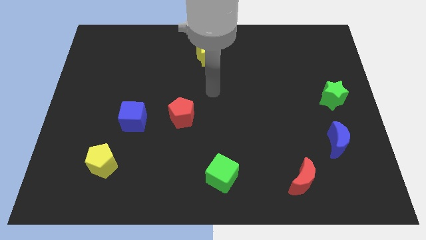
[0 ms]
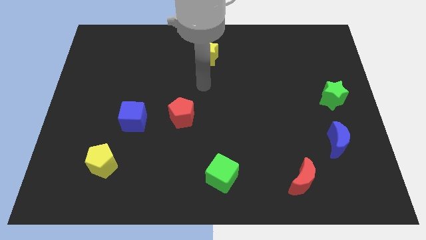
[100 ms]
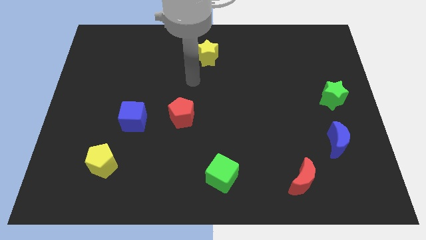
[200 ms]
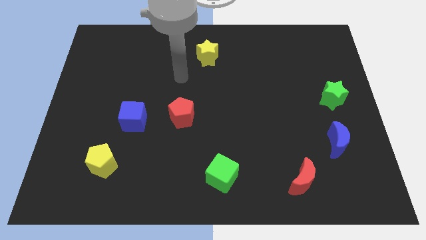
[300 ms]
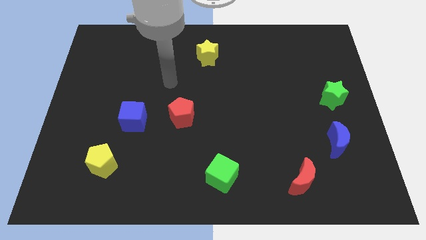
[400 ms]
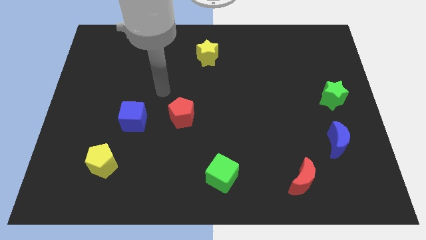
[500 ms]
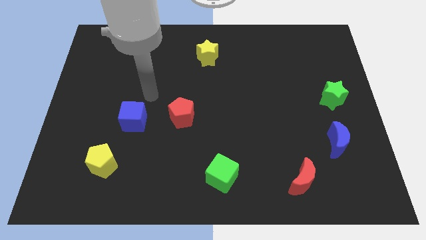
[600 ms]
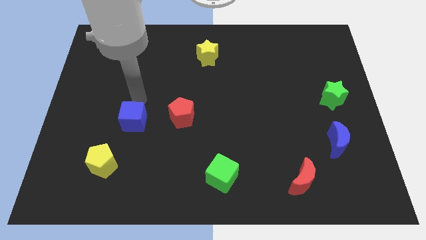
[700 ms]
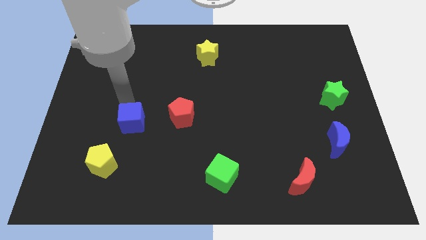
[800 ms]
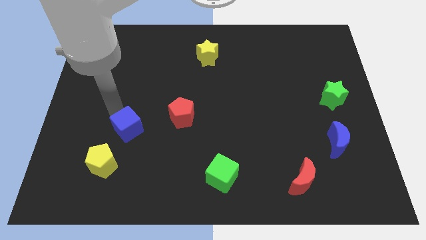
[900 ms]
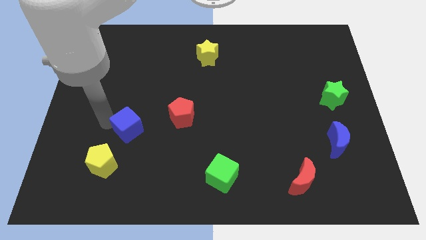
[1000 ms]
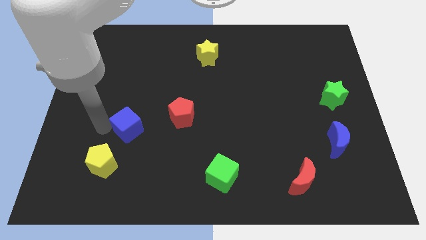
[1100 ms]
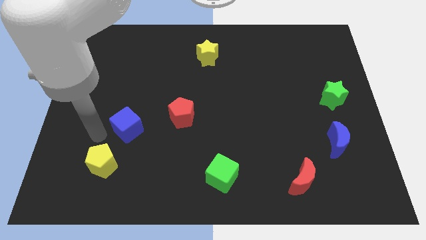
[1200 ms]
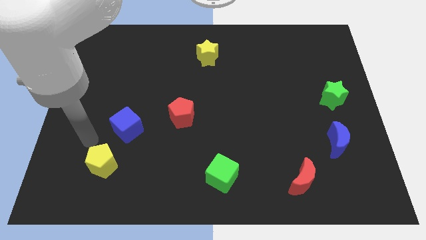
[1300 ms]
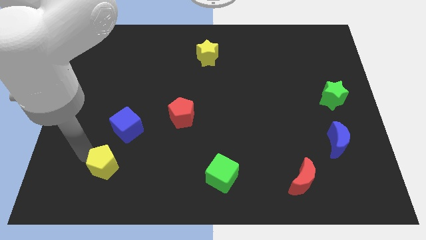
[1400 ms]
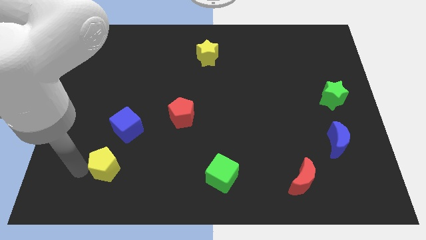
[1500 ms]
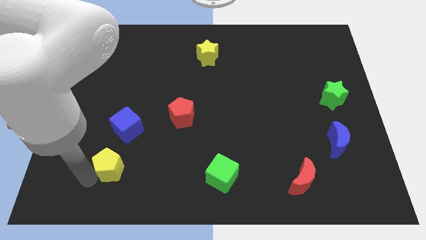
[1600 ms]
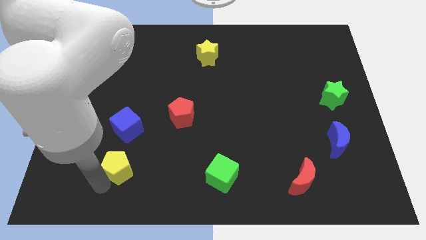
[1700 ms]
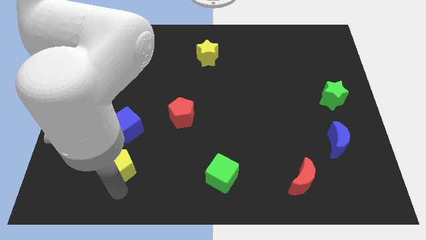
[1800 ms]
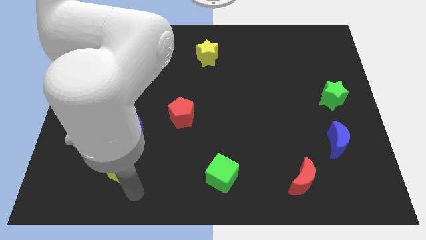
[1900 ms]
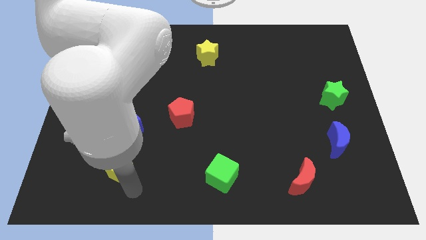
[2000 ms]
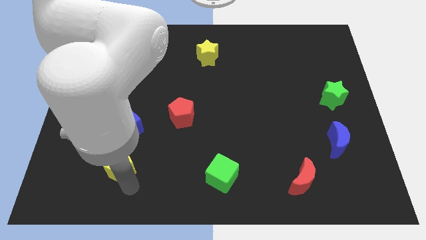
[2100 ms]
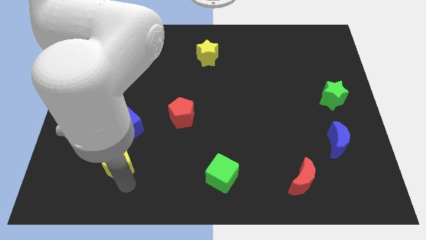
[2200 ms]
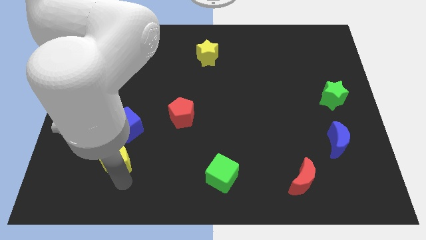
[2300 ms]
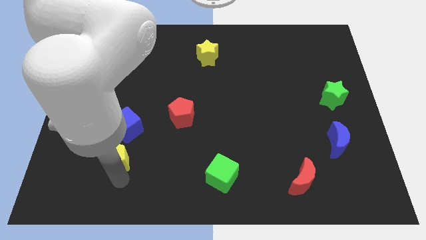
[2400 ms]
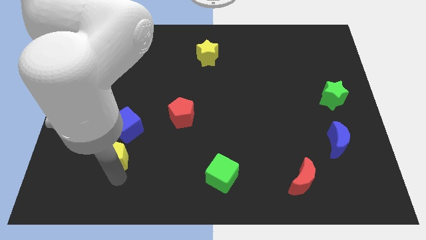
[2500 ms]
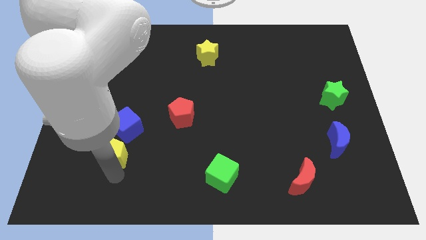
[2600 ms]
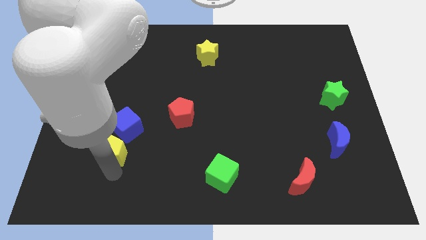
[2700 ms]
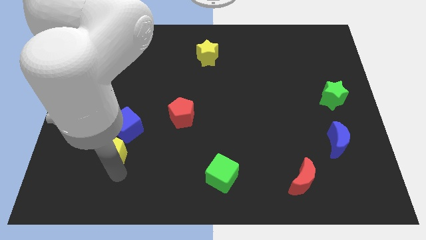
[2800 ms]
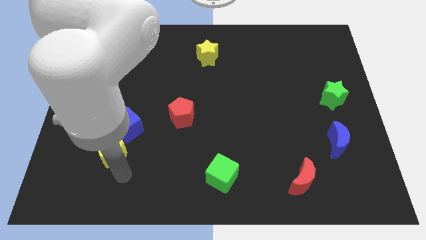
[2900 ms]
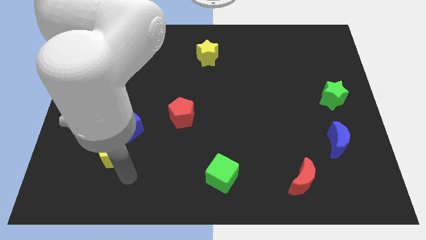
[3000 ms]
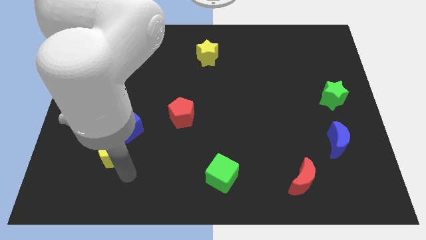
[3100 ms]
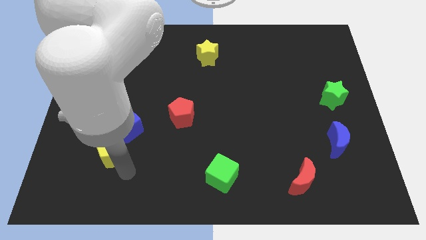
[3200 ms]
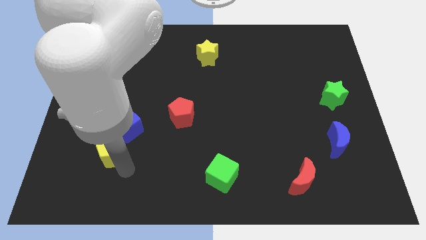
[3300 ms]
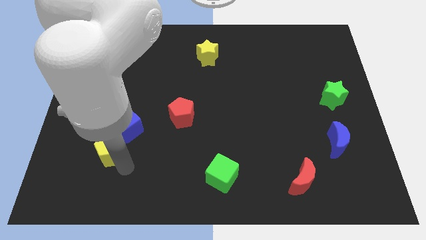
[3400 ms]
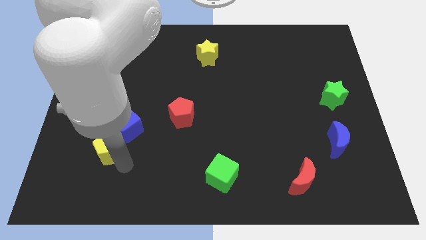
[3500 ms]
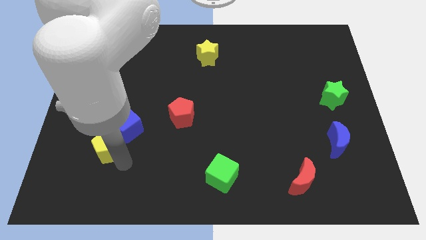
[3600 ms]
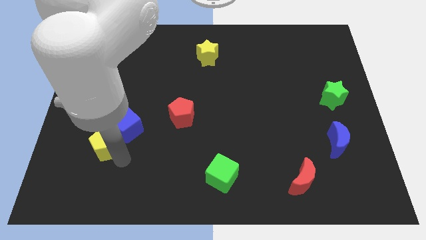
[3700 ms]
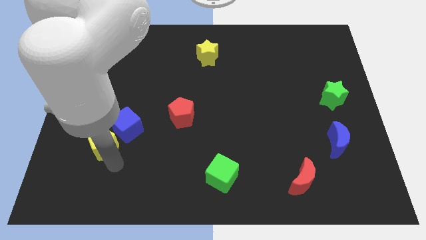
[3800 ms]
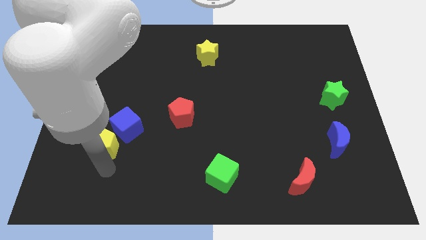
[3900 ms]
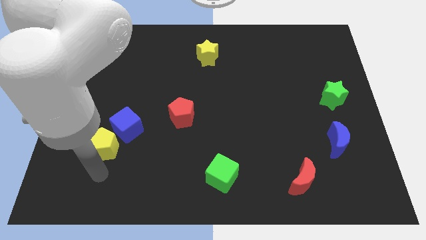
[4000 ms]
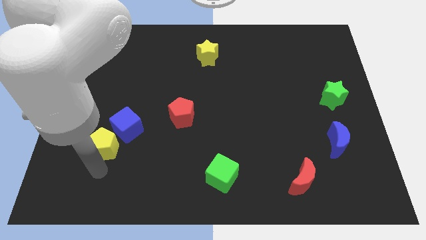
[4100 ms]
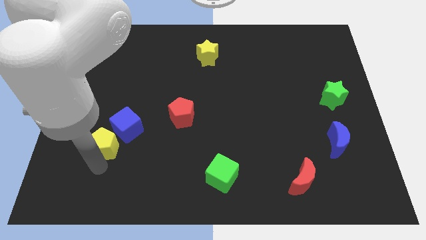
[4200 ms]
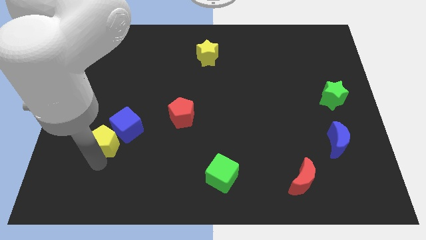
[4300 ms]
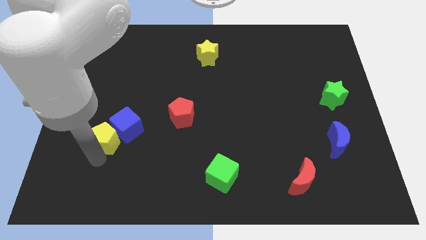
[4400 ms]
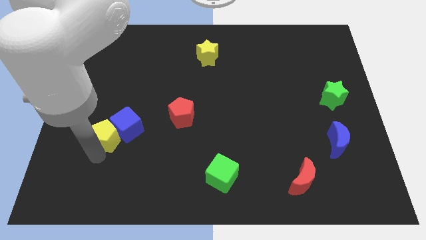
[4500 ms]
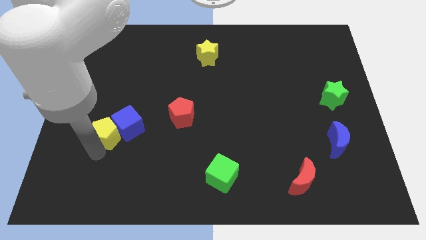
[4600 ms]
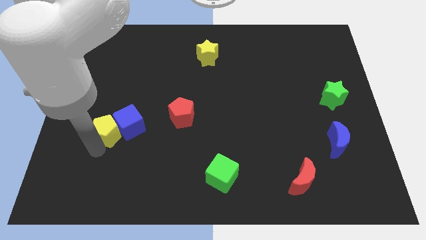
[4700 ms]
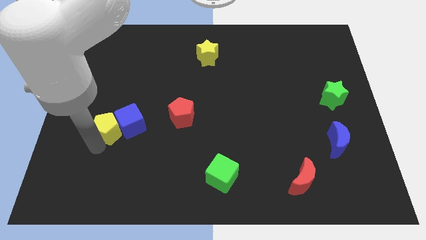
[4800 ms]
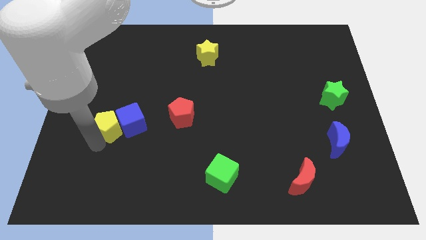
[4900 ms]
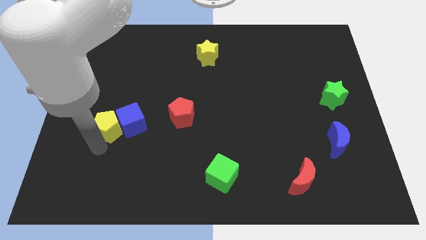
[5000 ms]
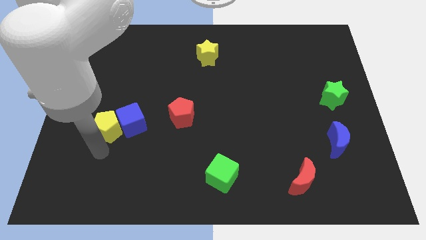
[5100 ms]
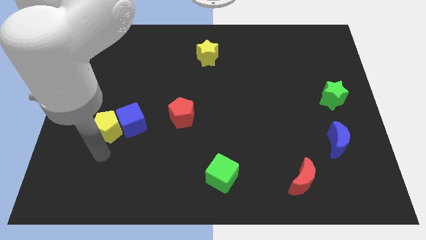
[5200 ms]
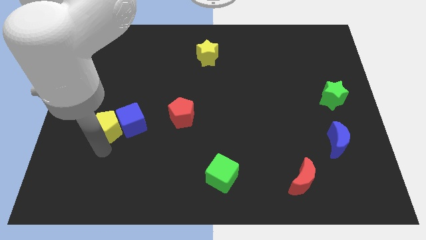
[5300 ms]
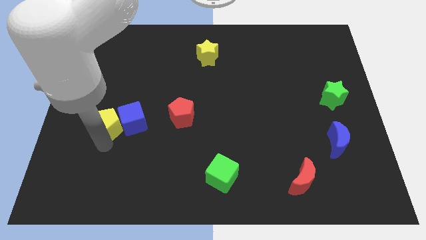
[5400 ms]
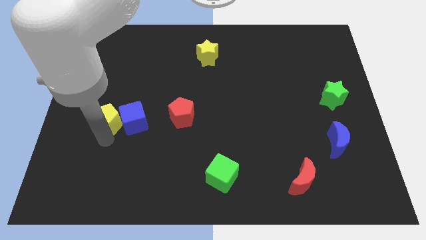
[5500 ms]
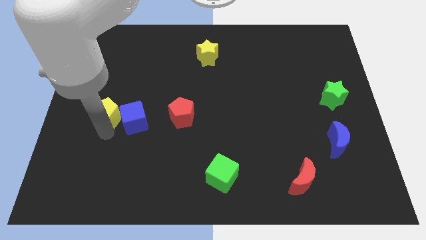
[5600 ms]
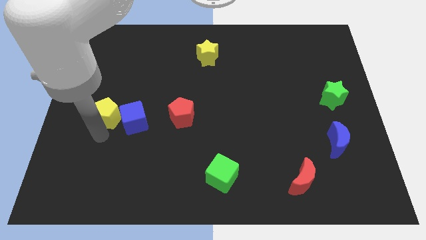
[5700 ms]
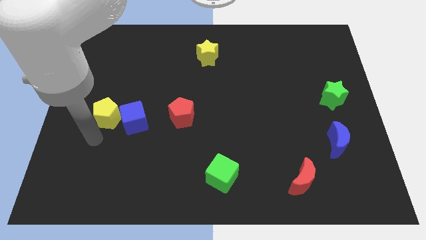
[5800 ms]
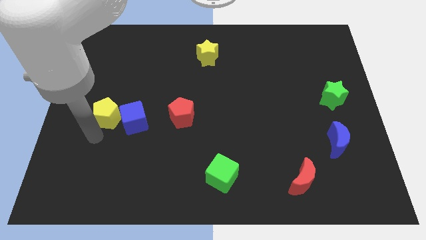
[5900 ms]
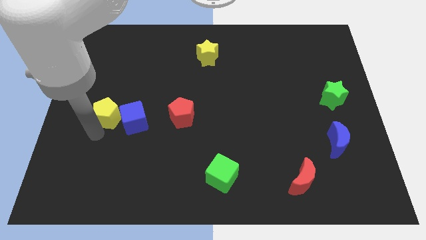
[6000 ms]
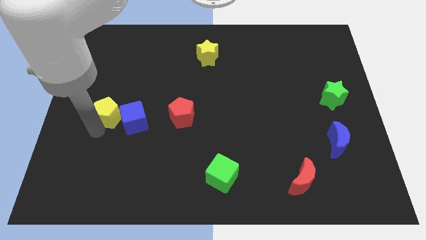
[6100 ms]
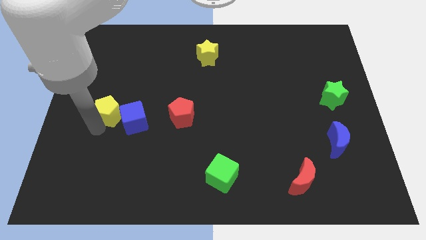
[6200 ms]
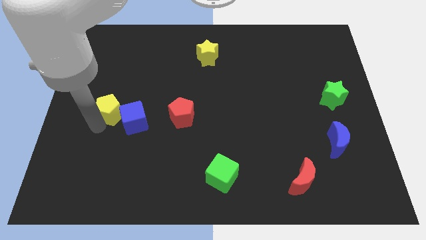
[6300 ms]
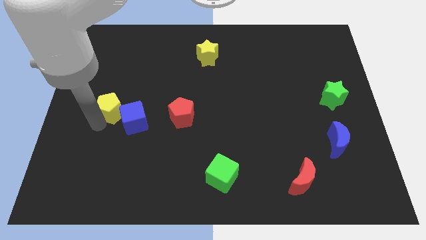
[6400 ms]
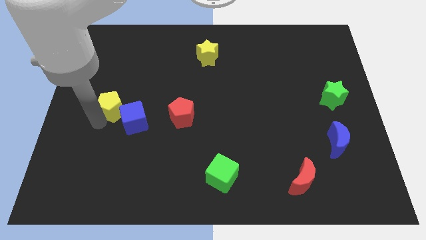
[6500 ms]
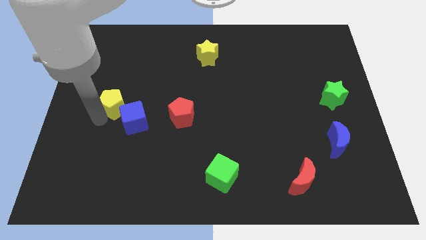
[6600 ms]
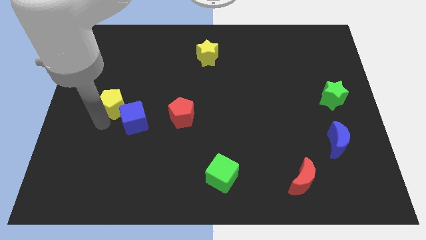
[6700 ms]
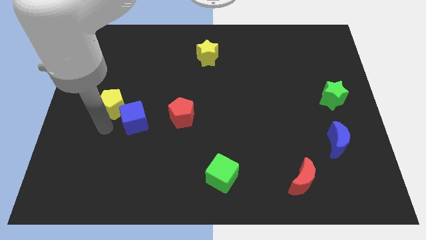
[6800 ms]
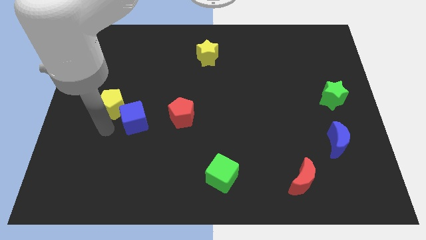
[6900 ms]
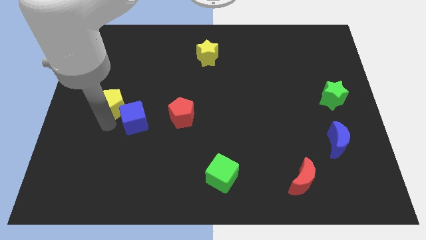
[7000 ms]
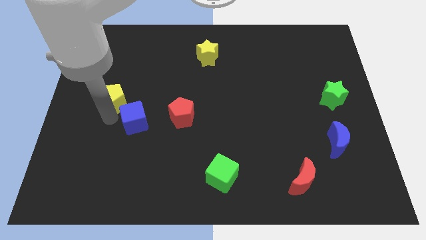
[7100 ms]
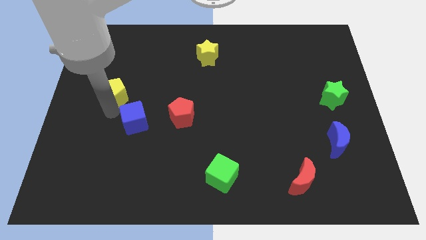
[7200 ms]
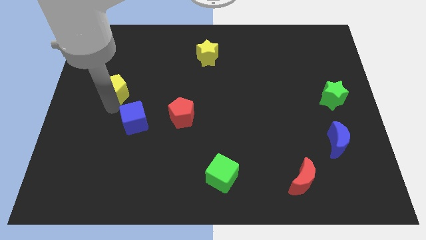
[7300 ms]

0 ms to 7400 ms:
move the yellow pentagon upwards

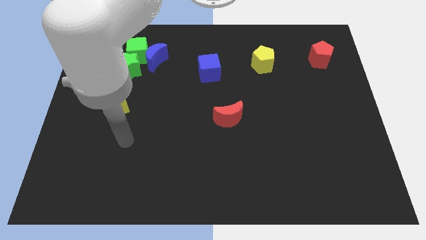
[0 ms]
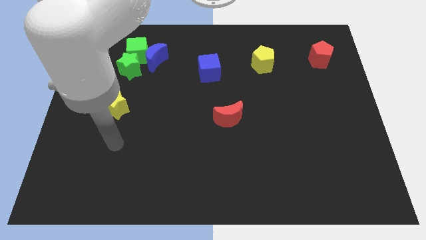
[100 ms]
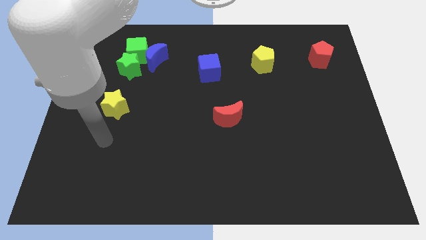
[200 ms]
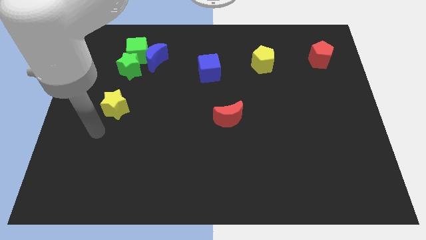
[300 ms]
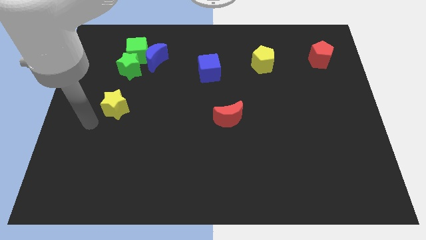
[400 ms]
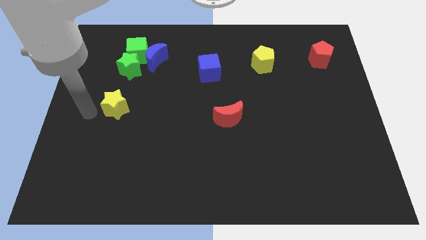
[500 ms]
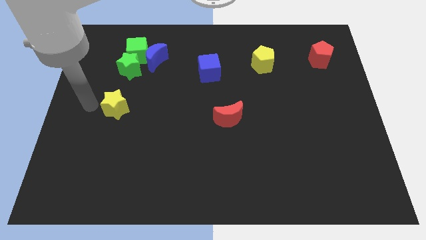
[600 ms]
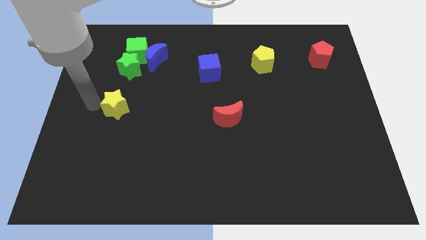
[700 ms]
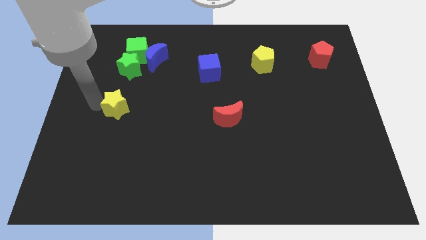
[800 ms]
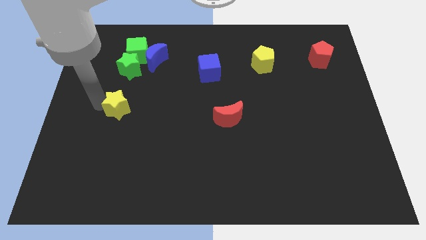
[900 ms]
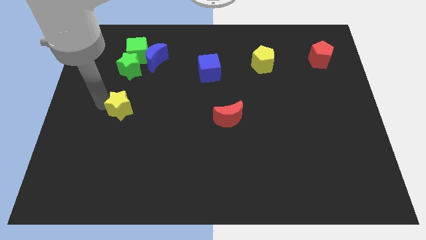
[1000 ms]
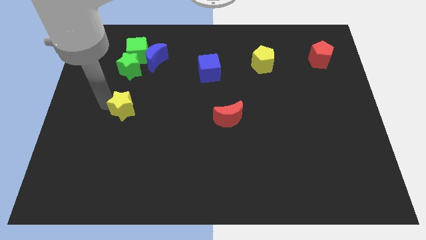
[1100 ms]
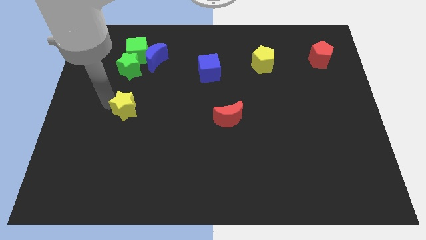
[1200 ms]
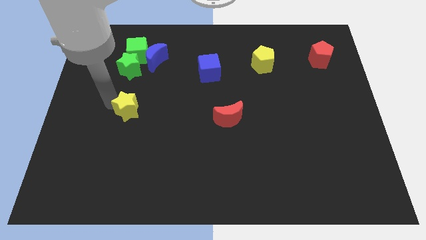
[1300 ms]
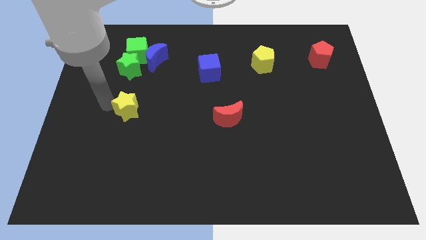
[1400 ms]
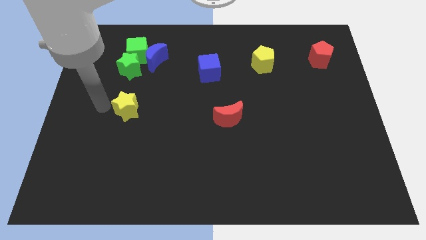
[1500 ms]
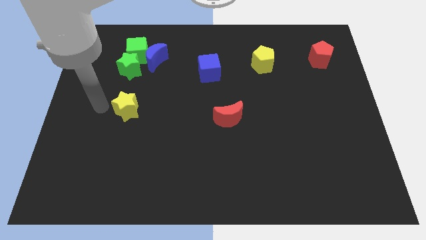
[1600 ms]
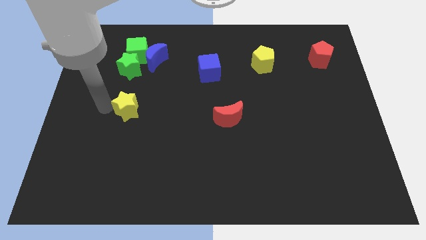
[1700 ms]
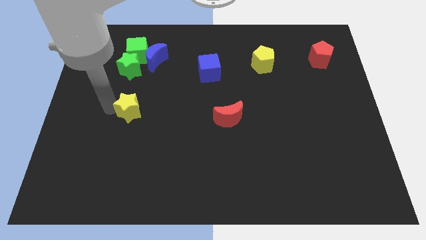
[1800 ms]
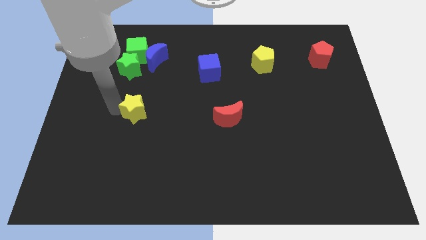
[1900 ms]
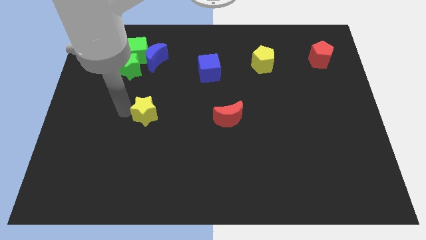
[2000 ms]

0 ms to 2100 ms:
move the yellow star somewhat to the right
